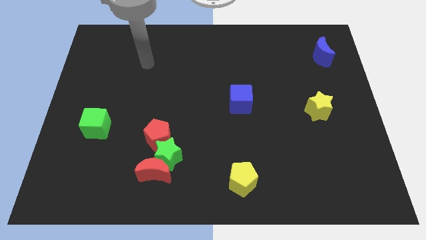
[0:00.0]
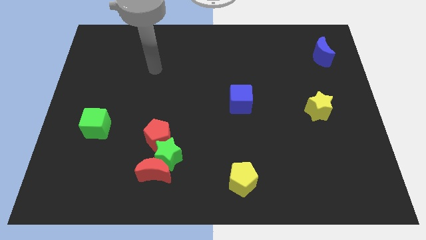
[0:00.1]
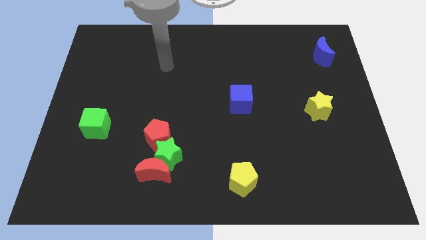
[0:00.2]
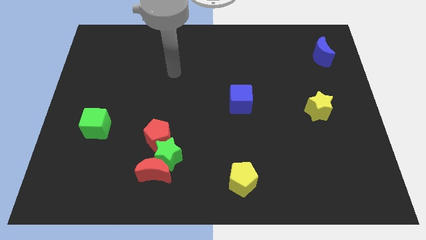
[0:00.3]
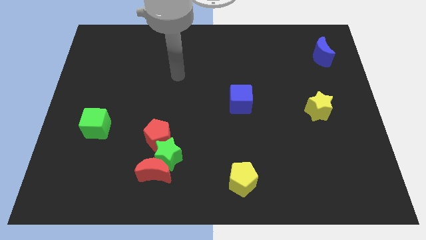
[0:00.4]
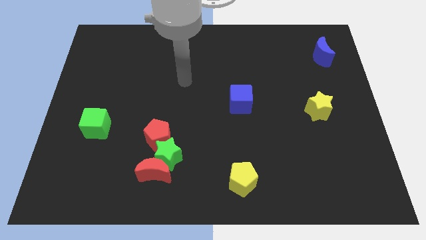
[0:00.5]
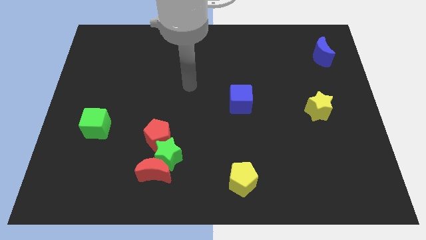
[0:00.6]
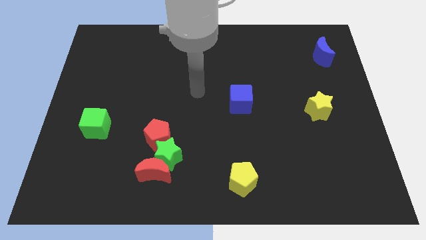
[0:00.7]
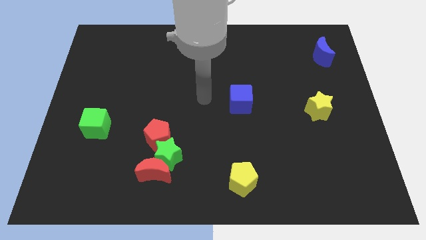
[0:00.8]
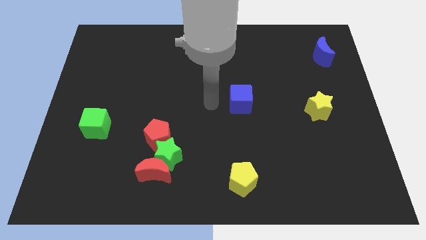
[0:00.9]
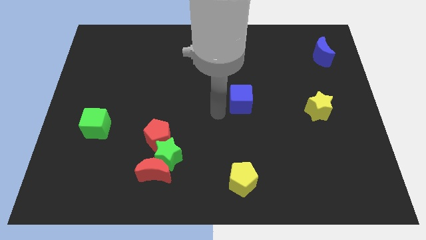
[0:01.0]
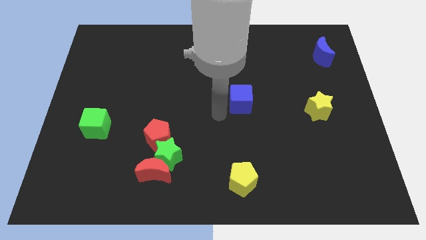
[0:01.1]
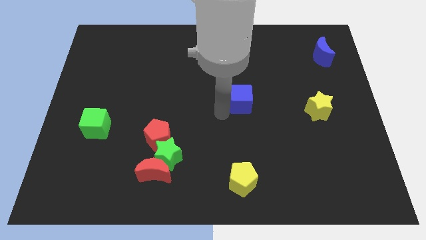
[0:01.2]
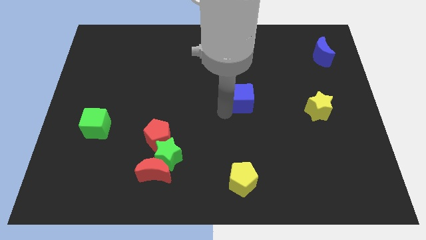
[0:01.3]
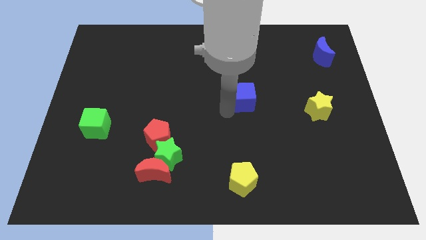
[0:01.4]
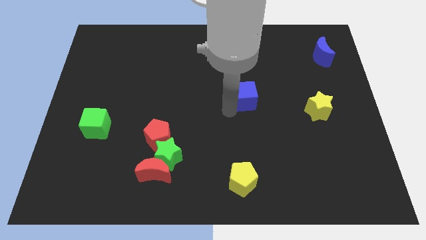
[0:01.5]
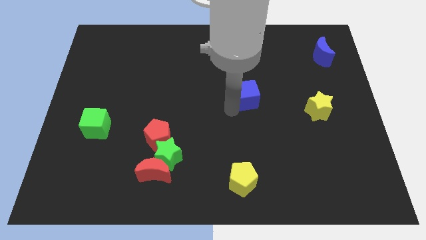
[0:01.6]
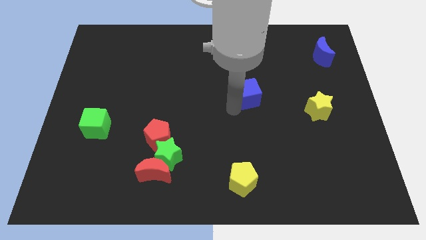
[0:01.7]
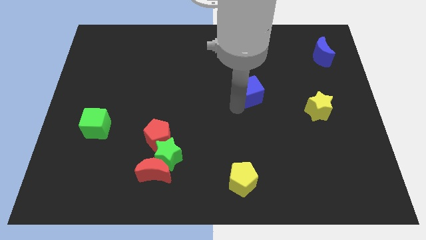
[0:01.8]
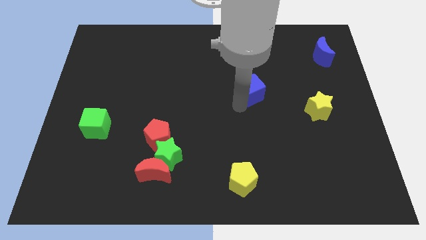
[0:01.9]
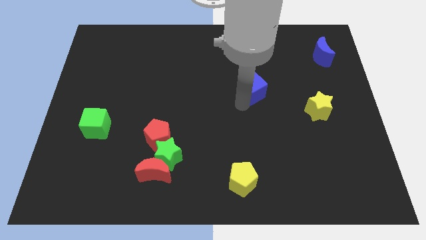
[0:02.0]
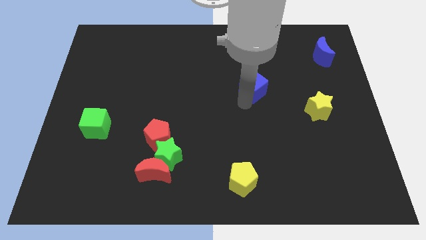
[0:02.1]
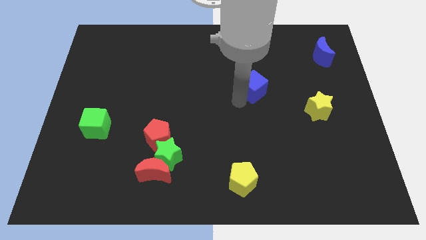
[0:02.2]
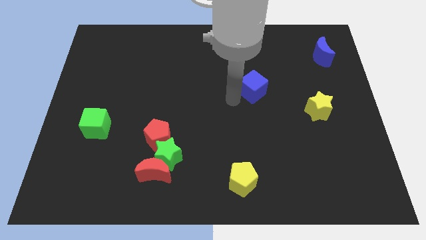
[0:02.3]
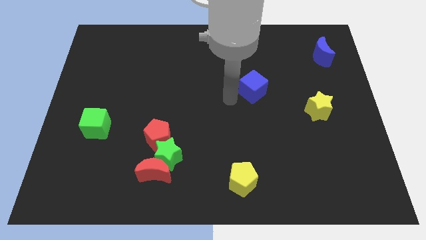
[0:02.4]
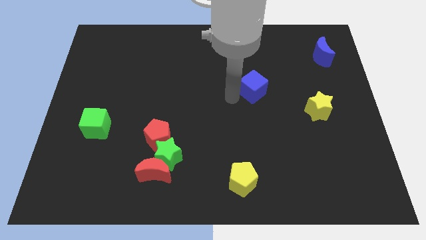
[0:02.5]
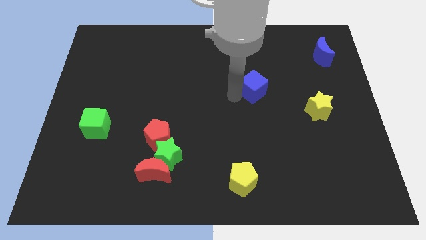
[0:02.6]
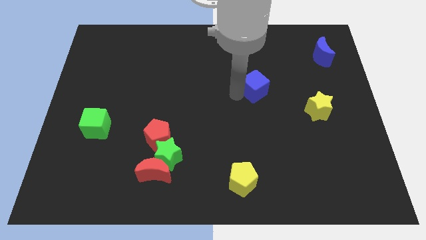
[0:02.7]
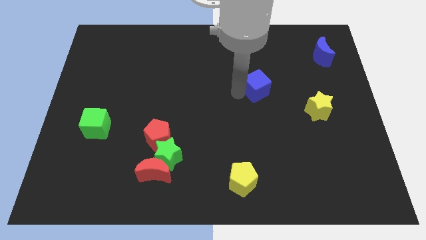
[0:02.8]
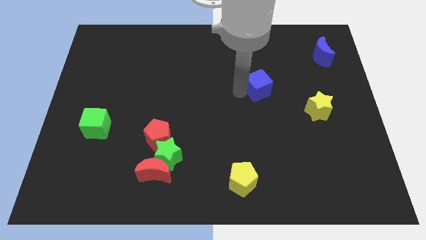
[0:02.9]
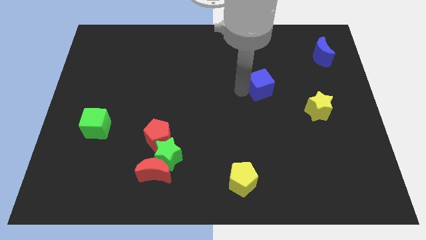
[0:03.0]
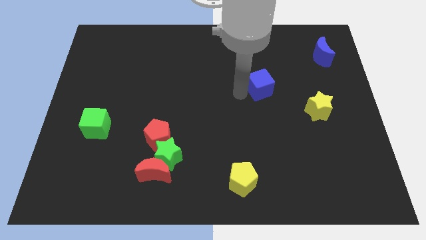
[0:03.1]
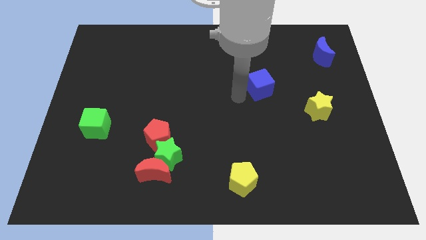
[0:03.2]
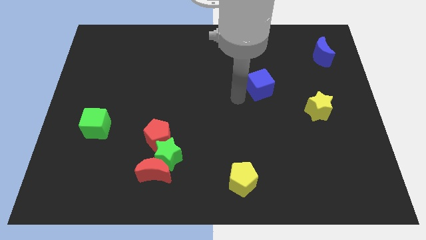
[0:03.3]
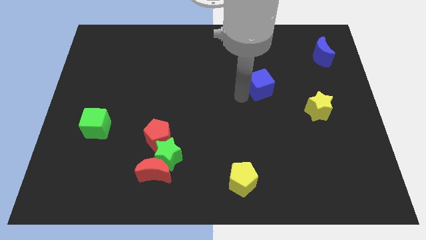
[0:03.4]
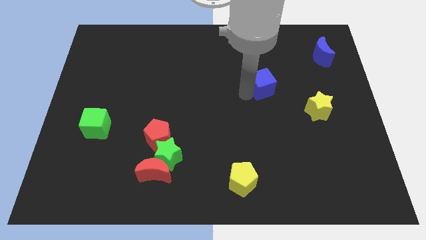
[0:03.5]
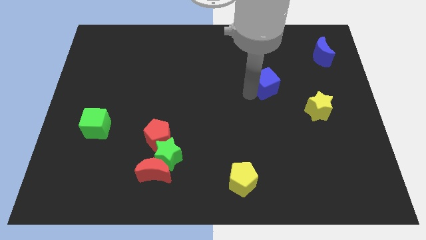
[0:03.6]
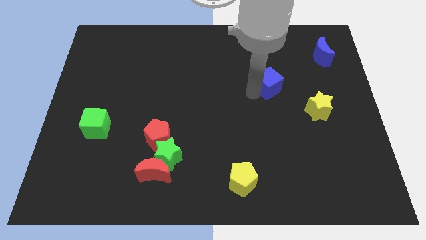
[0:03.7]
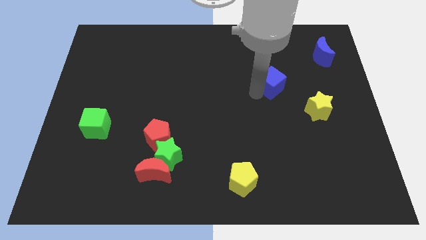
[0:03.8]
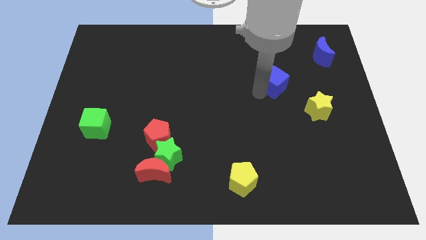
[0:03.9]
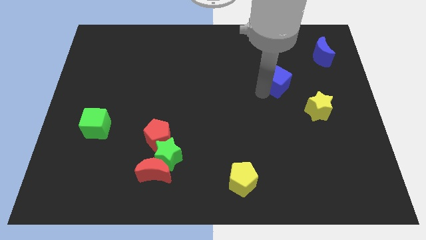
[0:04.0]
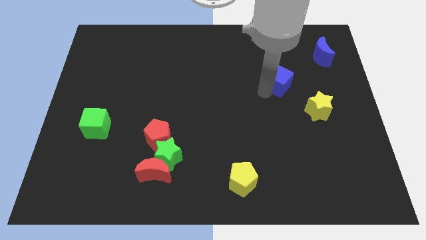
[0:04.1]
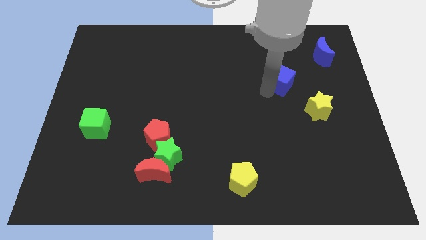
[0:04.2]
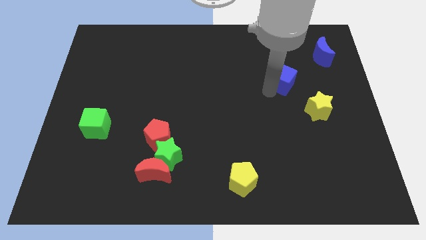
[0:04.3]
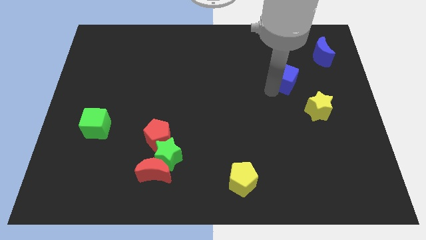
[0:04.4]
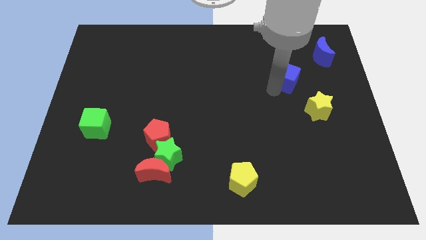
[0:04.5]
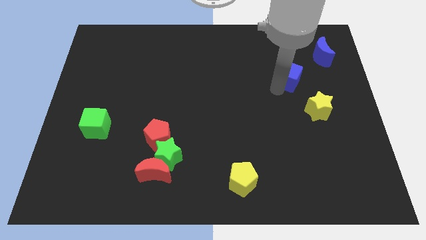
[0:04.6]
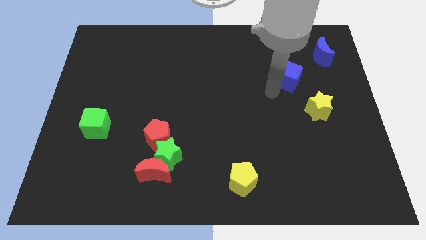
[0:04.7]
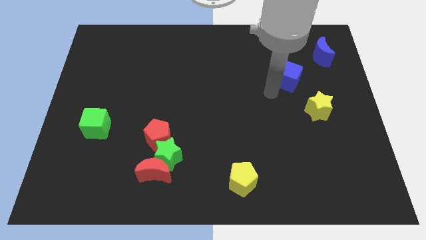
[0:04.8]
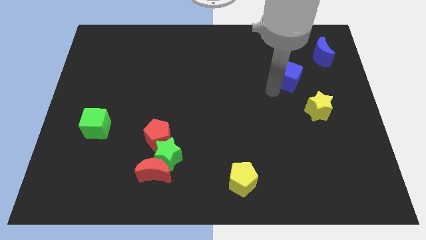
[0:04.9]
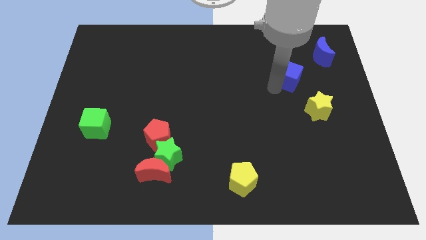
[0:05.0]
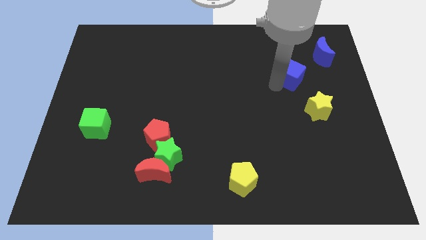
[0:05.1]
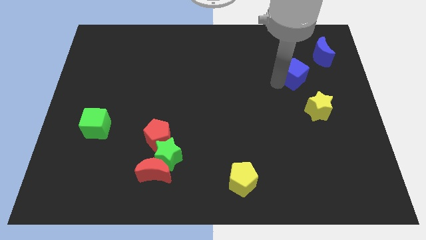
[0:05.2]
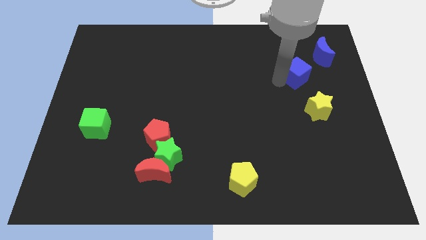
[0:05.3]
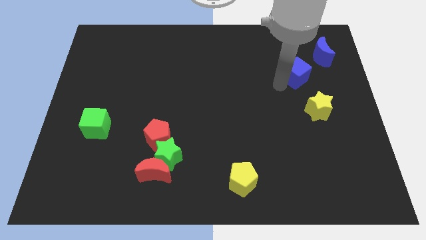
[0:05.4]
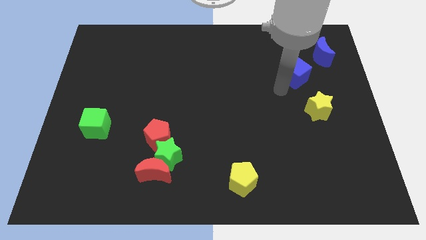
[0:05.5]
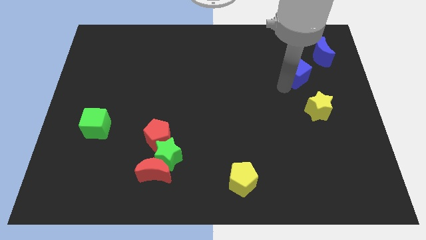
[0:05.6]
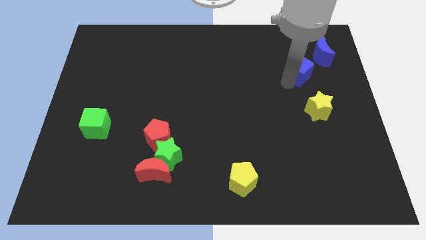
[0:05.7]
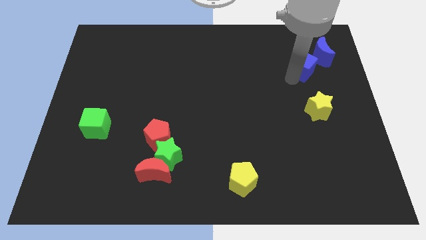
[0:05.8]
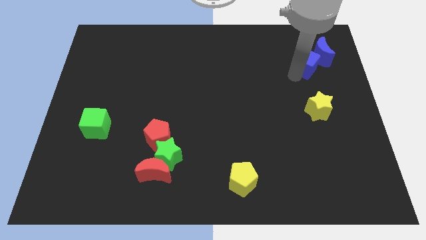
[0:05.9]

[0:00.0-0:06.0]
put the blue cube to the blue moon

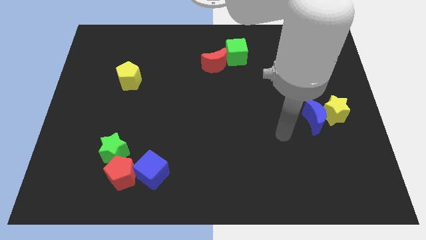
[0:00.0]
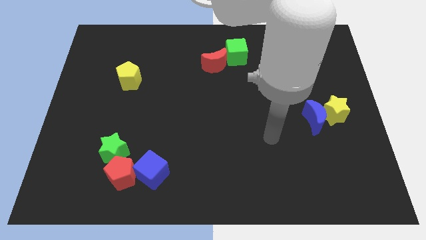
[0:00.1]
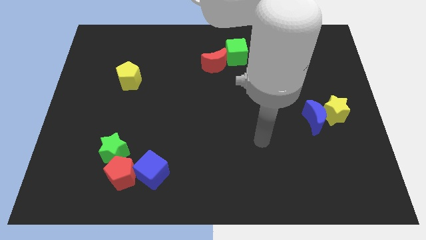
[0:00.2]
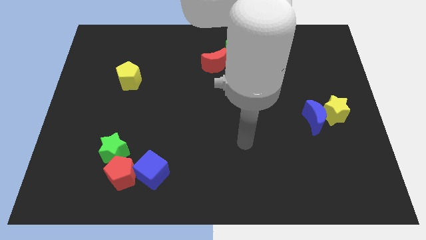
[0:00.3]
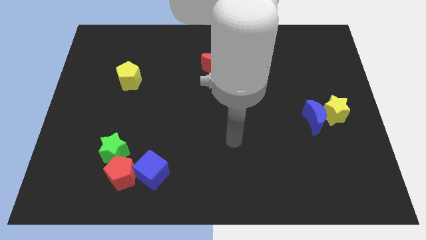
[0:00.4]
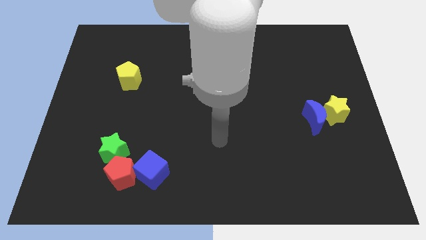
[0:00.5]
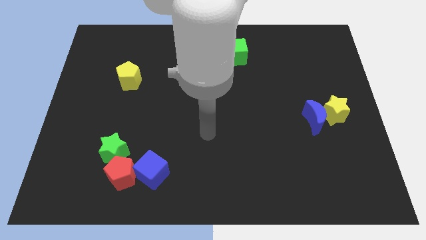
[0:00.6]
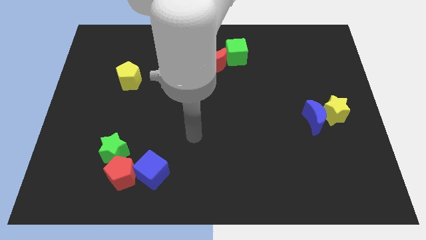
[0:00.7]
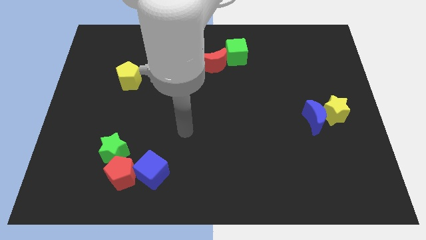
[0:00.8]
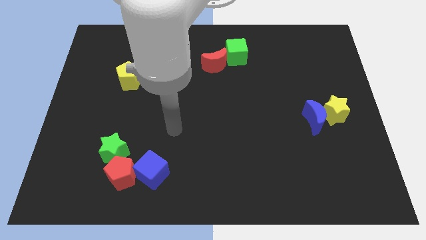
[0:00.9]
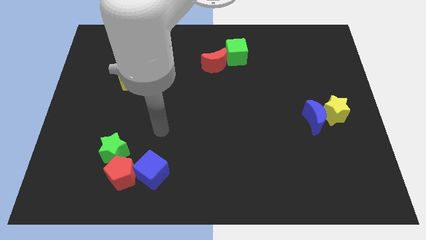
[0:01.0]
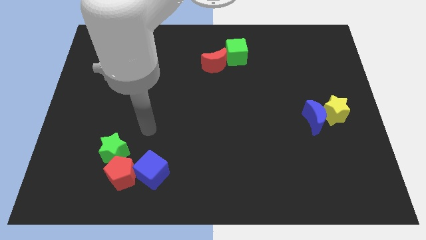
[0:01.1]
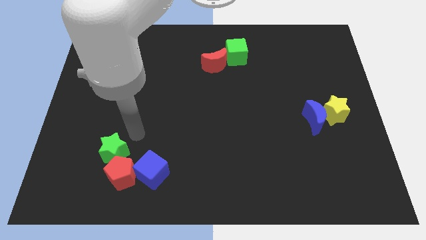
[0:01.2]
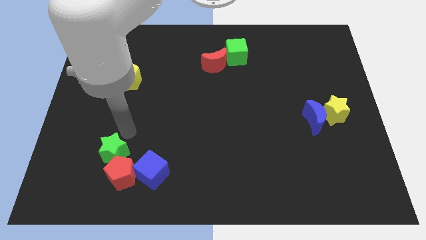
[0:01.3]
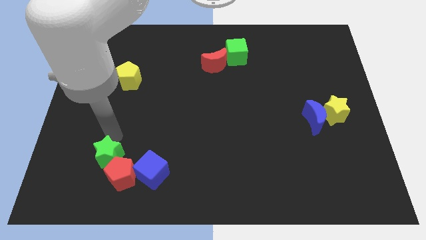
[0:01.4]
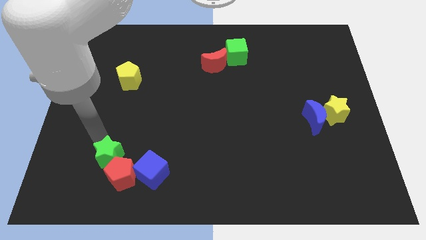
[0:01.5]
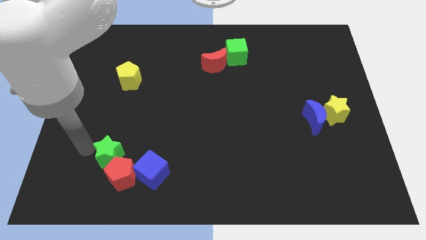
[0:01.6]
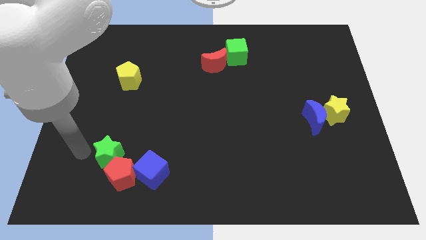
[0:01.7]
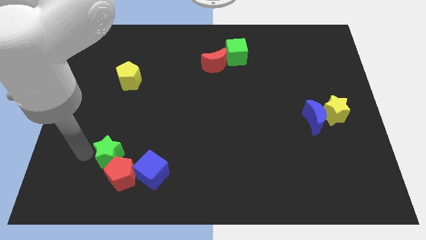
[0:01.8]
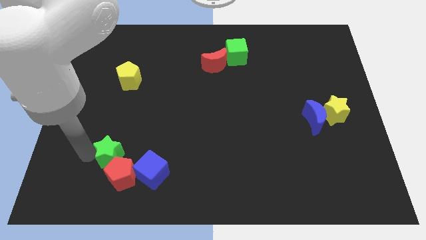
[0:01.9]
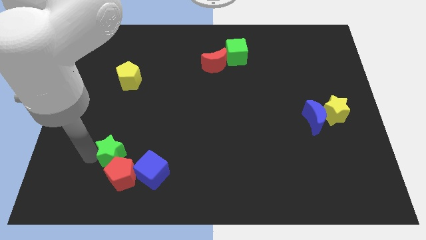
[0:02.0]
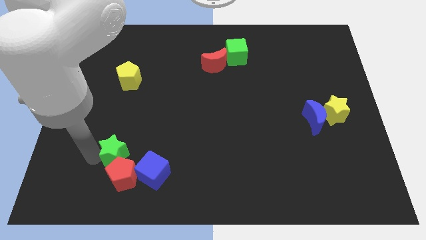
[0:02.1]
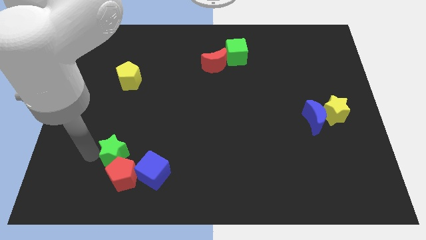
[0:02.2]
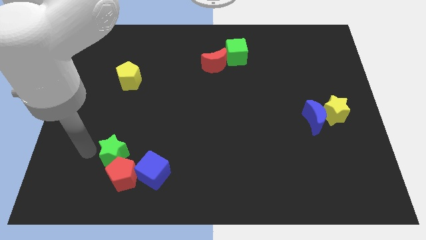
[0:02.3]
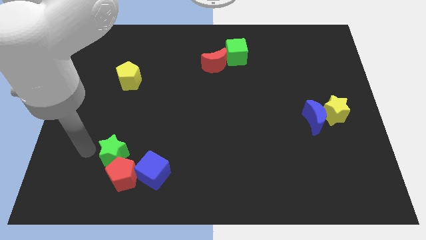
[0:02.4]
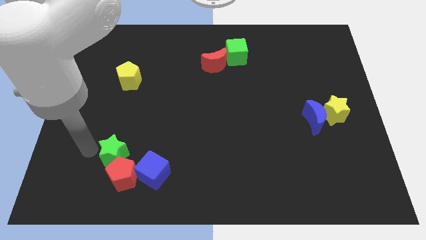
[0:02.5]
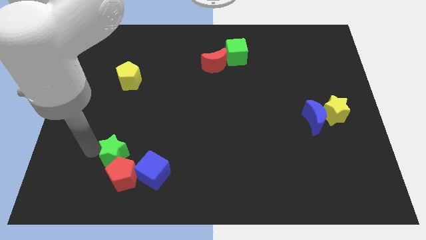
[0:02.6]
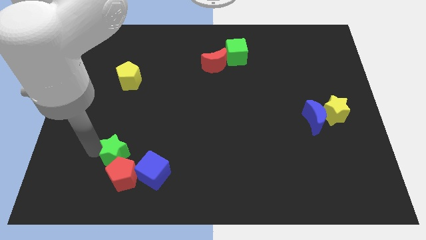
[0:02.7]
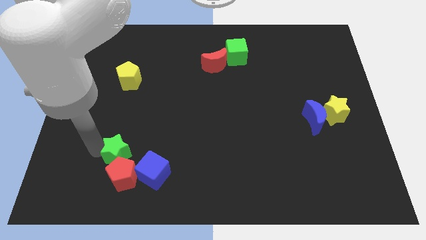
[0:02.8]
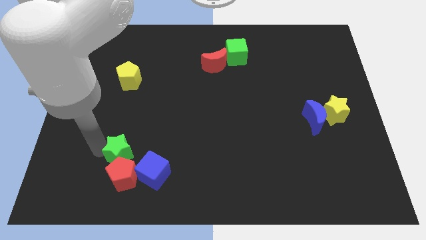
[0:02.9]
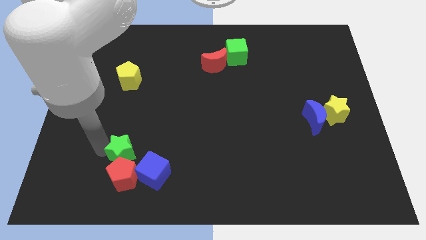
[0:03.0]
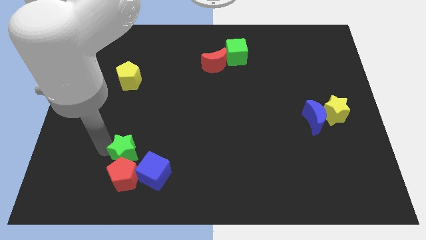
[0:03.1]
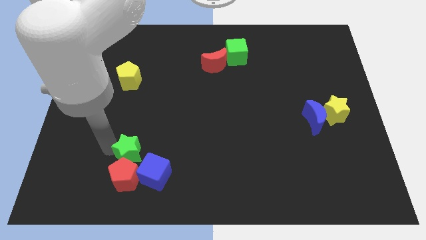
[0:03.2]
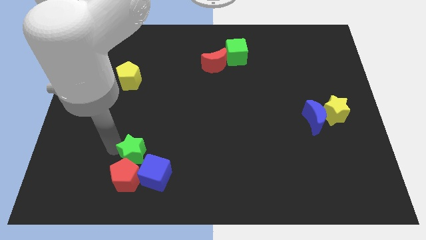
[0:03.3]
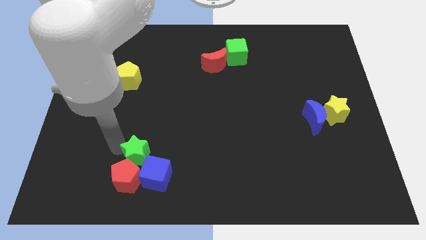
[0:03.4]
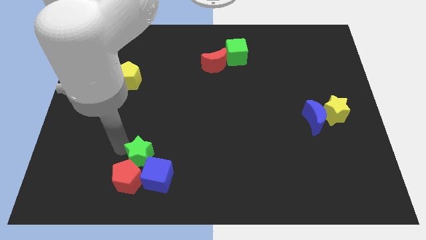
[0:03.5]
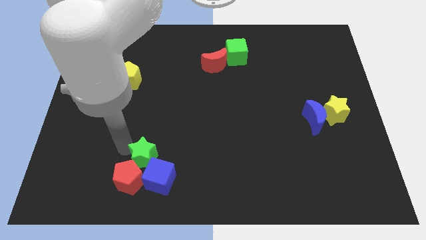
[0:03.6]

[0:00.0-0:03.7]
move the green star to the blue cube
